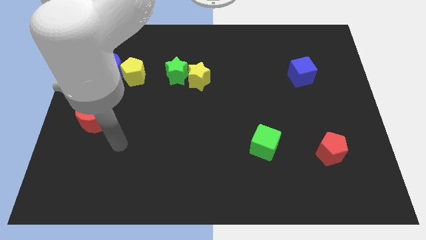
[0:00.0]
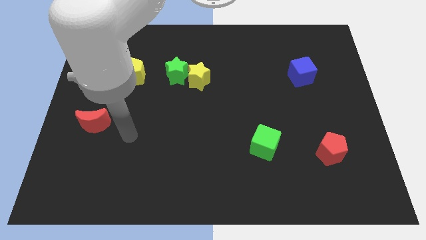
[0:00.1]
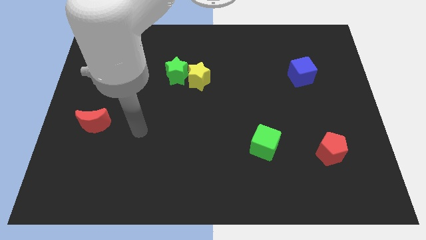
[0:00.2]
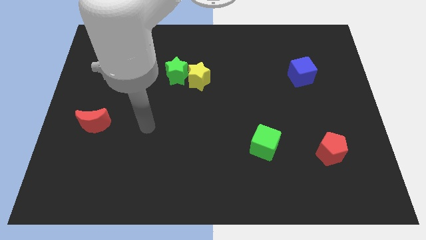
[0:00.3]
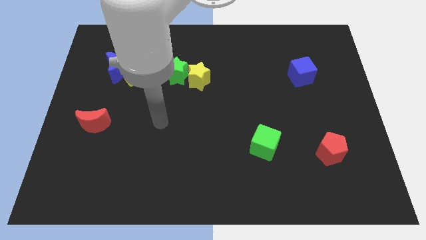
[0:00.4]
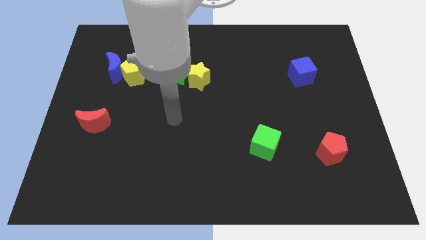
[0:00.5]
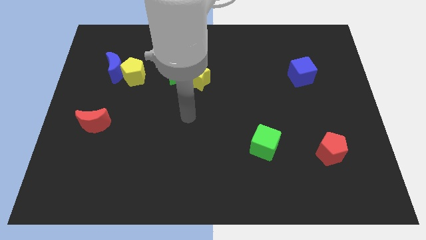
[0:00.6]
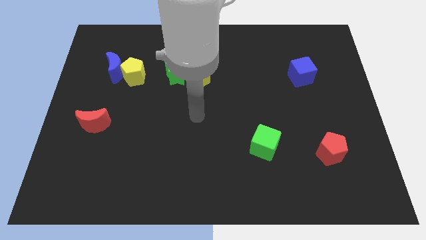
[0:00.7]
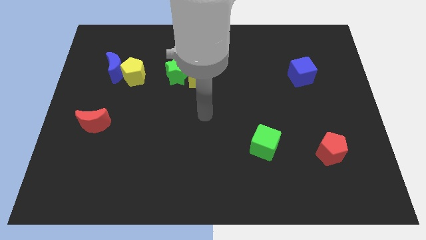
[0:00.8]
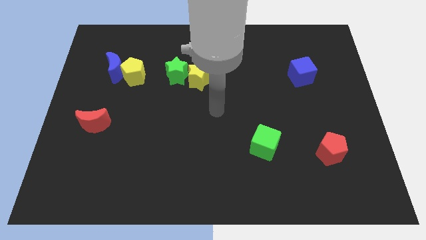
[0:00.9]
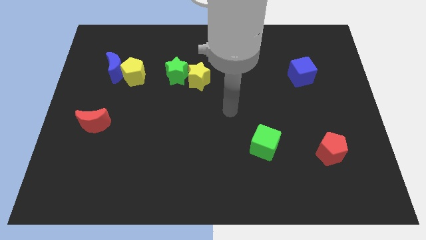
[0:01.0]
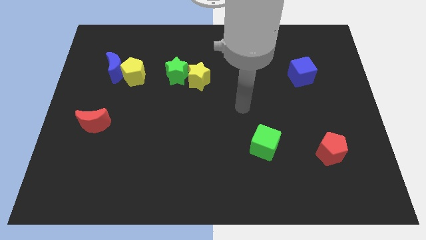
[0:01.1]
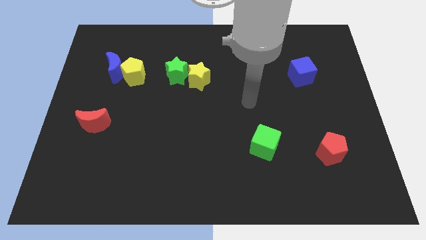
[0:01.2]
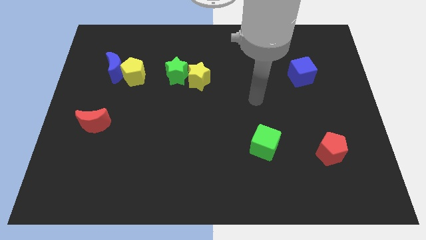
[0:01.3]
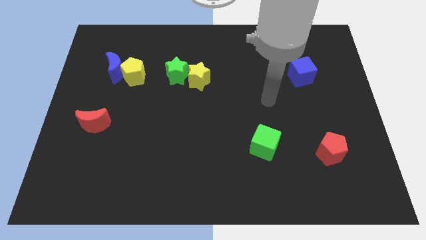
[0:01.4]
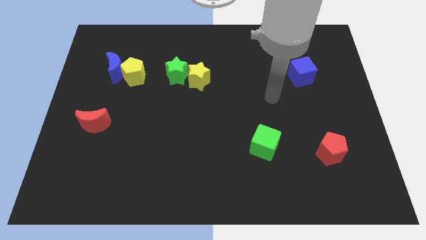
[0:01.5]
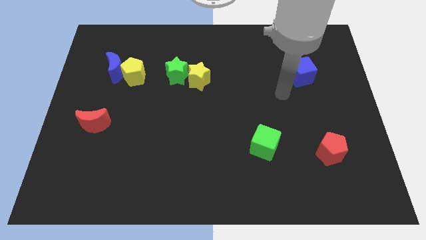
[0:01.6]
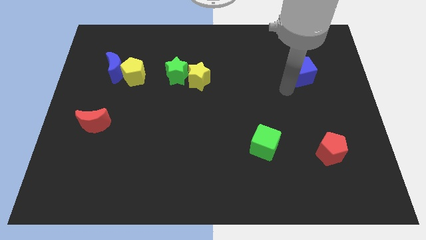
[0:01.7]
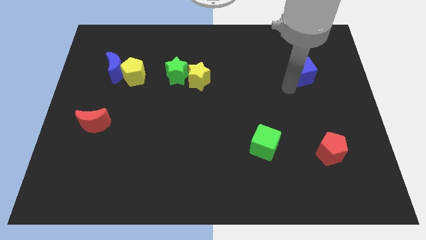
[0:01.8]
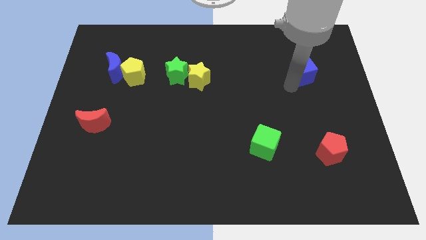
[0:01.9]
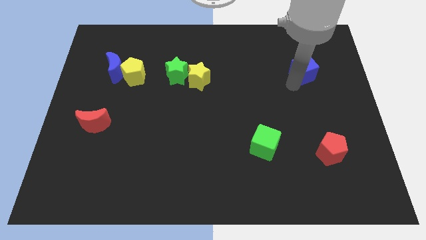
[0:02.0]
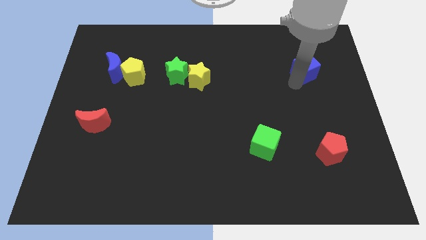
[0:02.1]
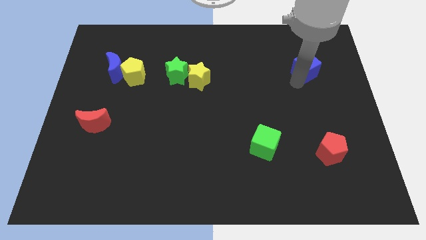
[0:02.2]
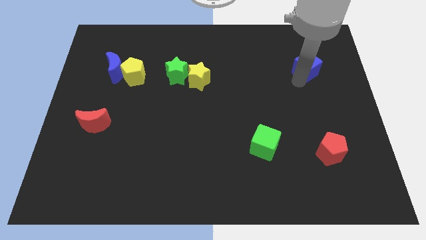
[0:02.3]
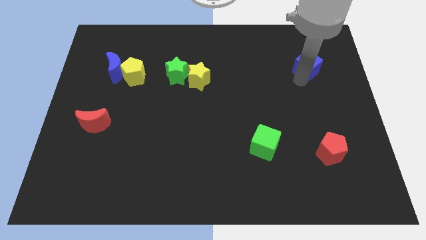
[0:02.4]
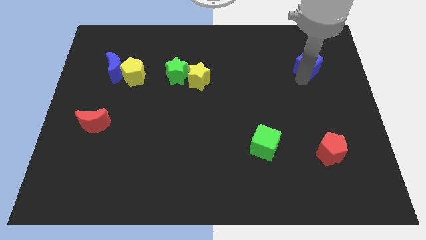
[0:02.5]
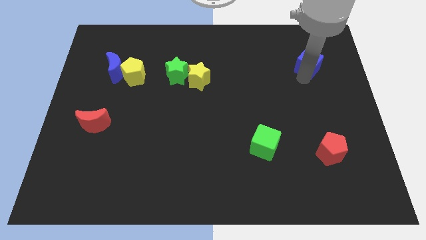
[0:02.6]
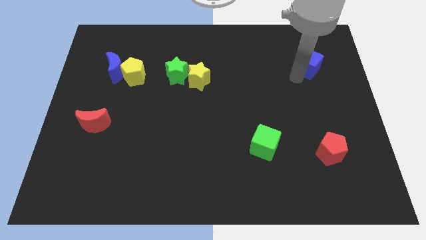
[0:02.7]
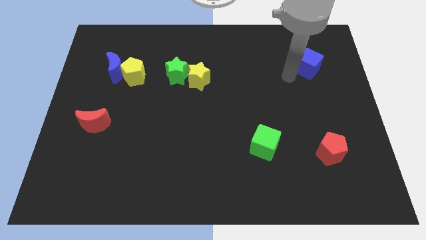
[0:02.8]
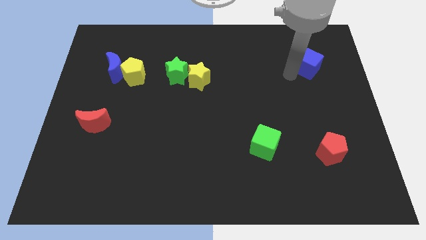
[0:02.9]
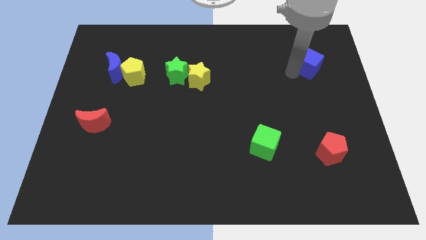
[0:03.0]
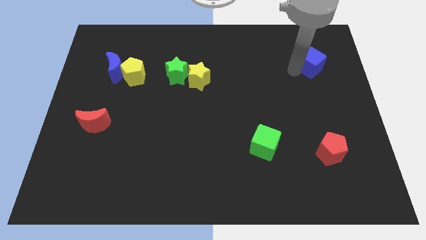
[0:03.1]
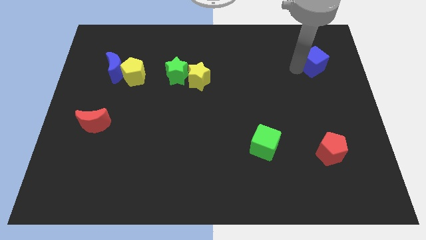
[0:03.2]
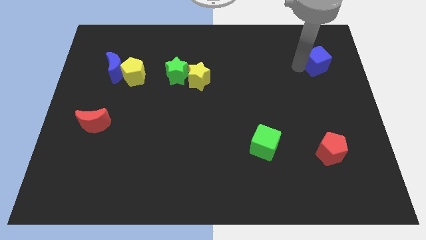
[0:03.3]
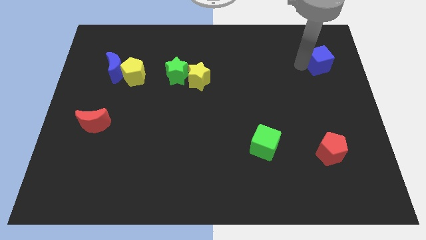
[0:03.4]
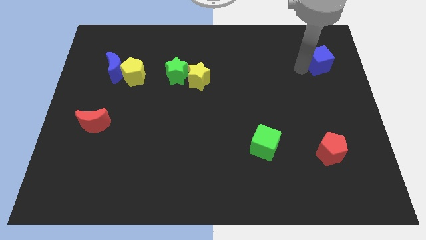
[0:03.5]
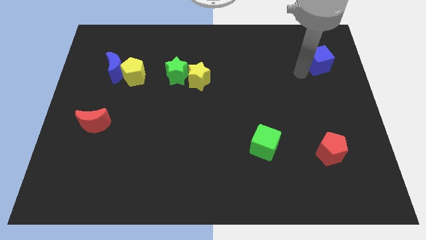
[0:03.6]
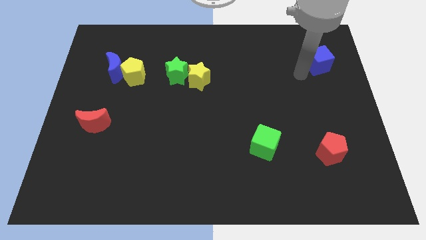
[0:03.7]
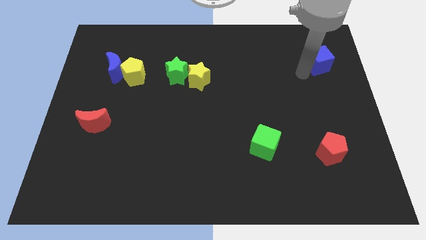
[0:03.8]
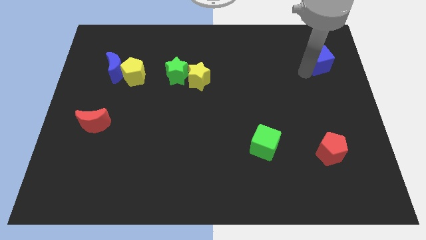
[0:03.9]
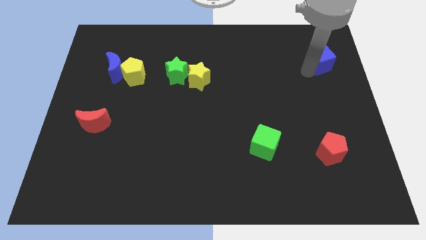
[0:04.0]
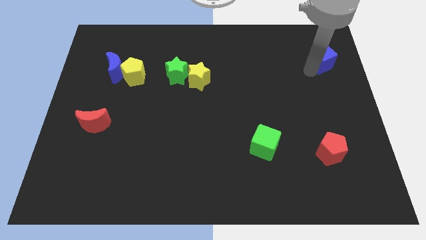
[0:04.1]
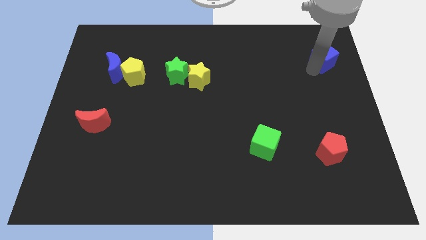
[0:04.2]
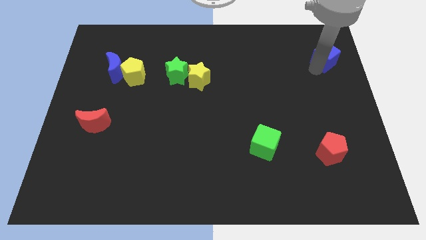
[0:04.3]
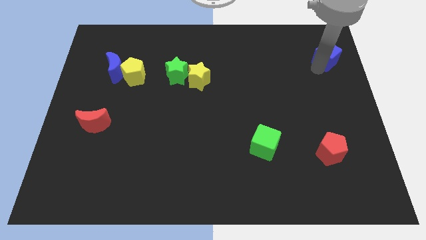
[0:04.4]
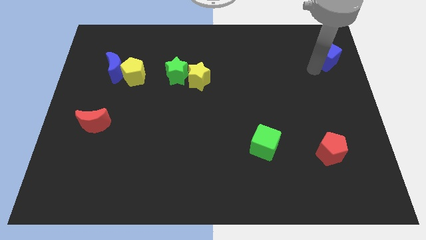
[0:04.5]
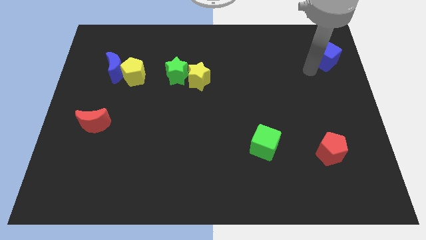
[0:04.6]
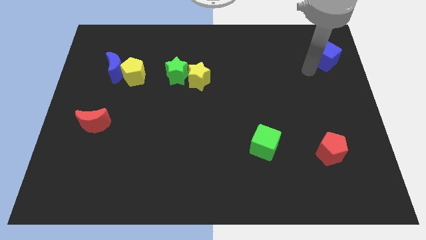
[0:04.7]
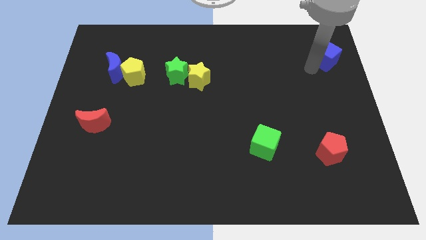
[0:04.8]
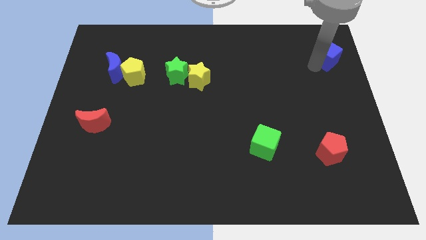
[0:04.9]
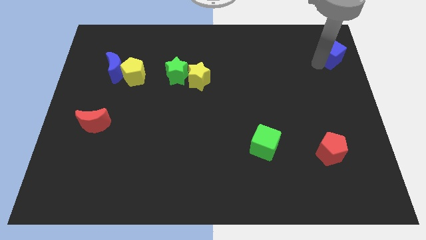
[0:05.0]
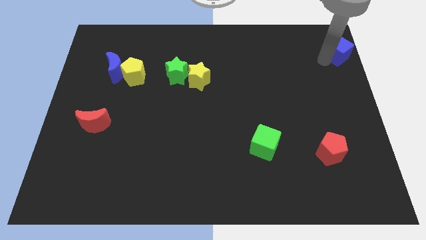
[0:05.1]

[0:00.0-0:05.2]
push the blue cube to the upper right corner

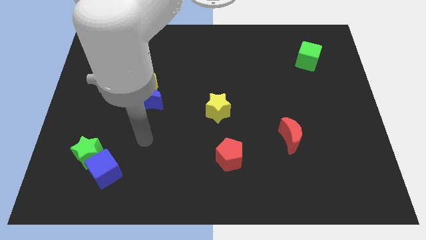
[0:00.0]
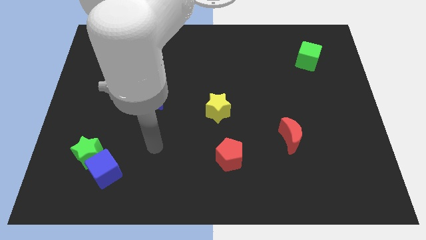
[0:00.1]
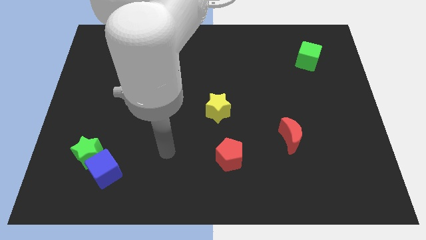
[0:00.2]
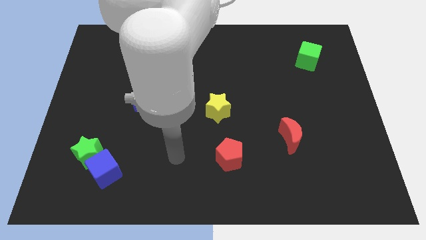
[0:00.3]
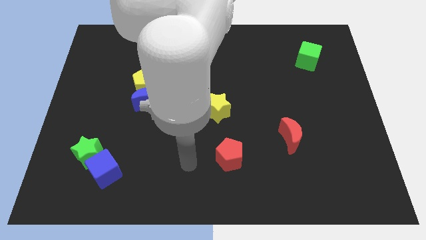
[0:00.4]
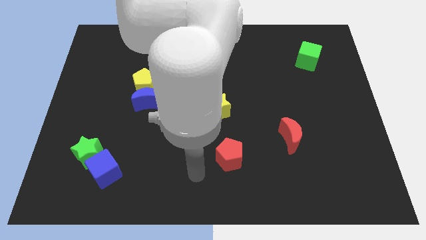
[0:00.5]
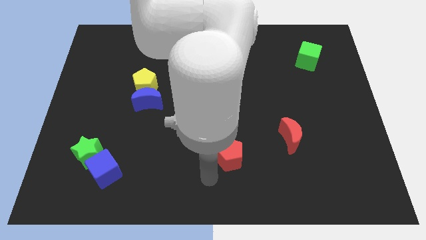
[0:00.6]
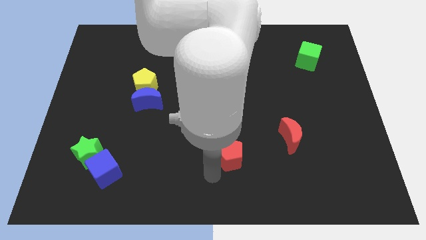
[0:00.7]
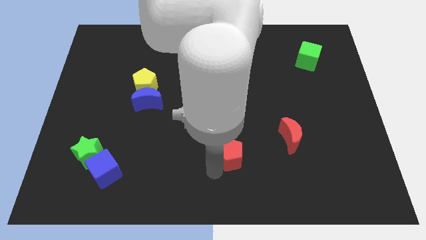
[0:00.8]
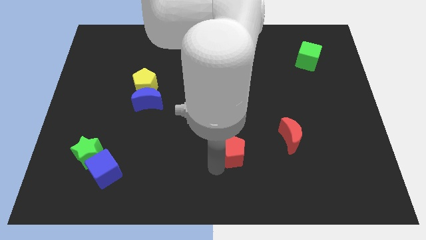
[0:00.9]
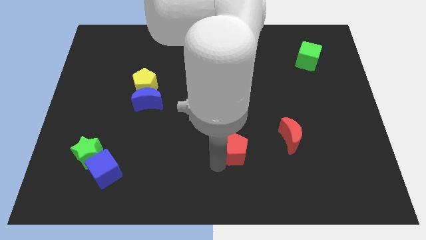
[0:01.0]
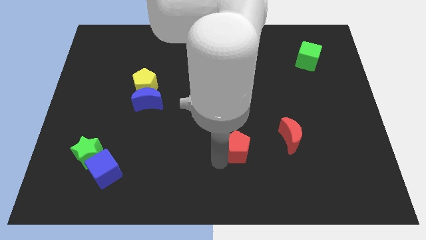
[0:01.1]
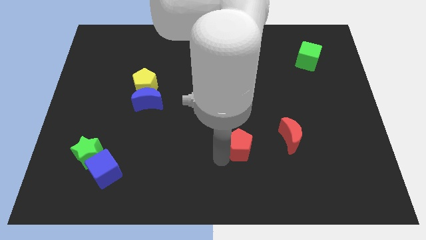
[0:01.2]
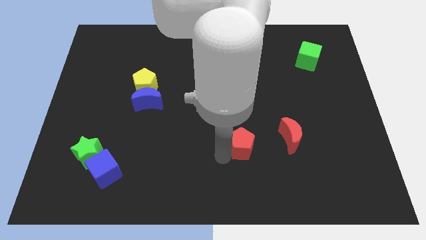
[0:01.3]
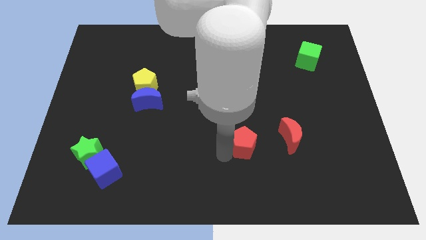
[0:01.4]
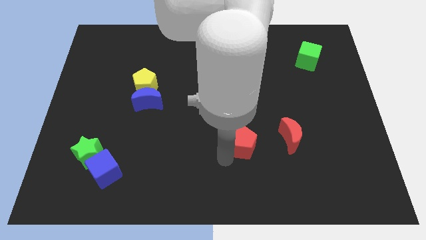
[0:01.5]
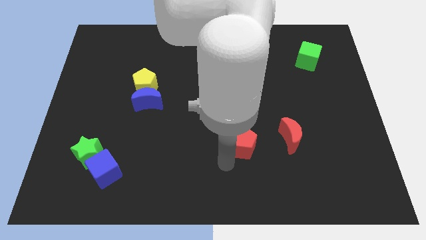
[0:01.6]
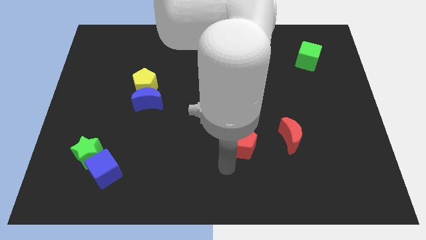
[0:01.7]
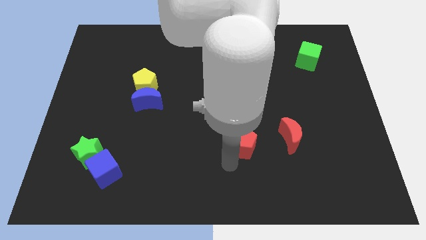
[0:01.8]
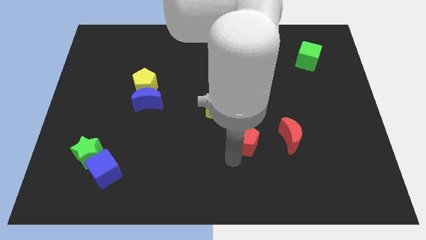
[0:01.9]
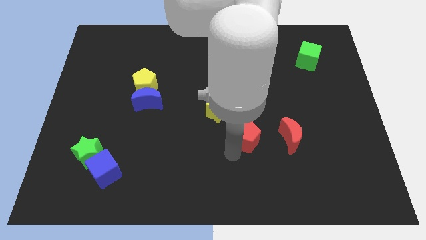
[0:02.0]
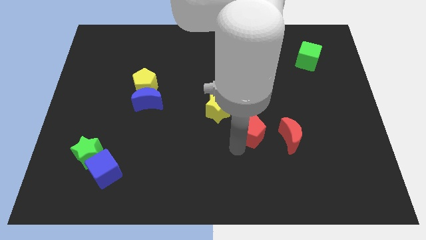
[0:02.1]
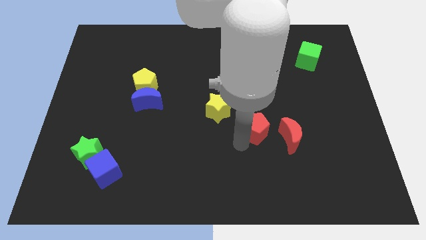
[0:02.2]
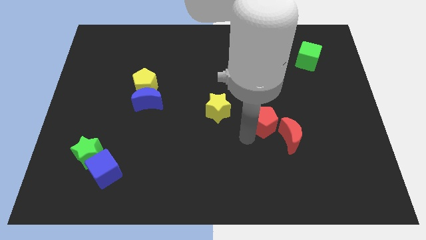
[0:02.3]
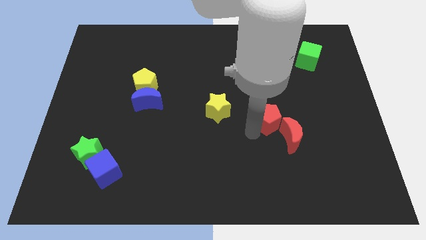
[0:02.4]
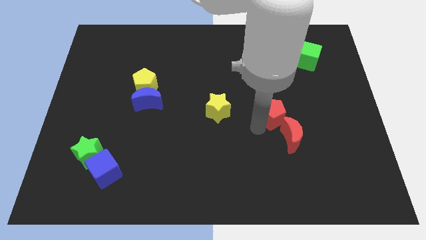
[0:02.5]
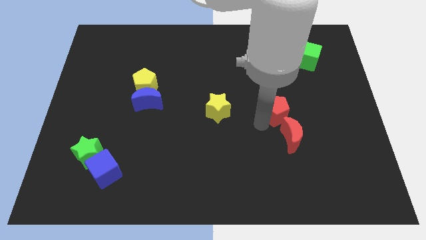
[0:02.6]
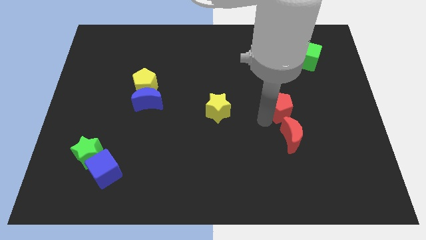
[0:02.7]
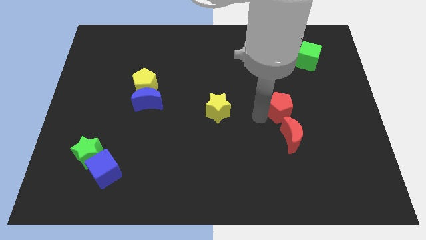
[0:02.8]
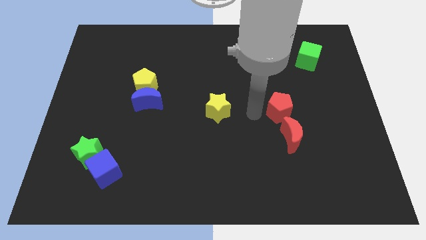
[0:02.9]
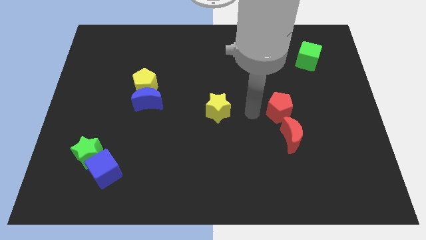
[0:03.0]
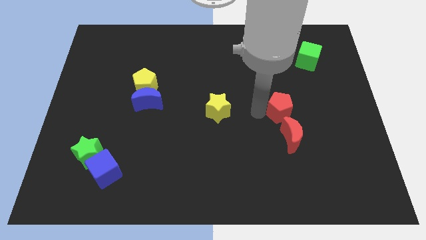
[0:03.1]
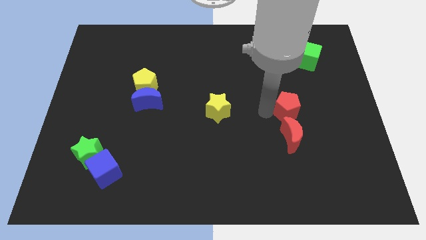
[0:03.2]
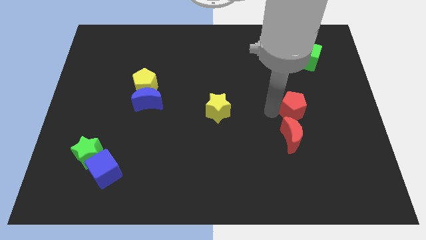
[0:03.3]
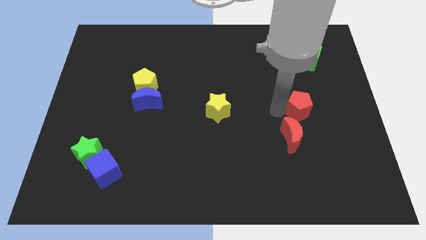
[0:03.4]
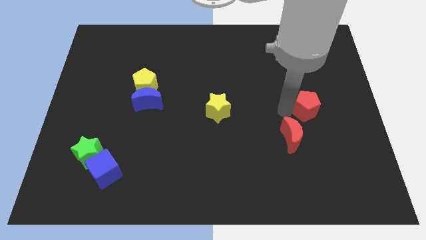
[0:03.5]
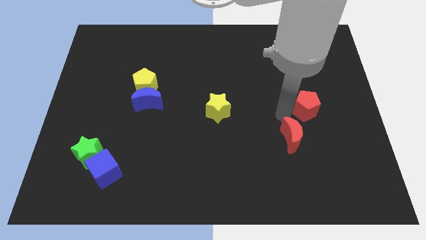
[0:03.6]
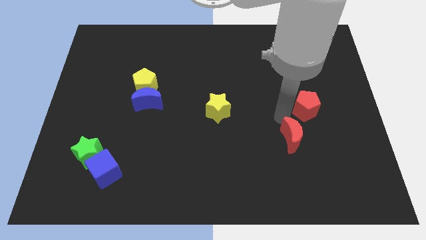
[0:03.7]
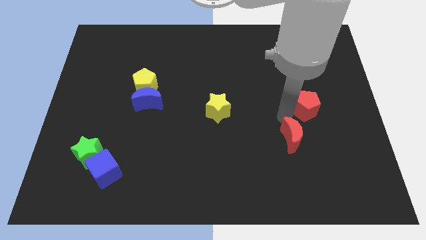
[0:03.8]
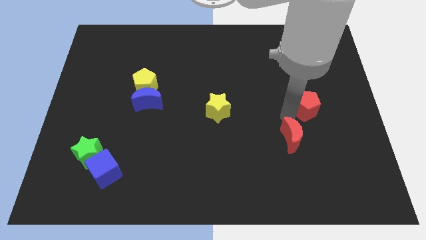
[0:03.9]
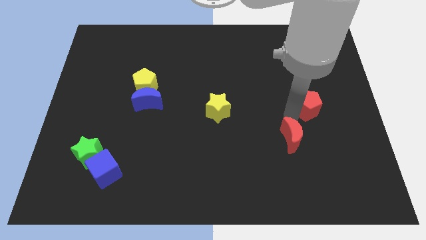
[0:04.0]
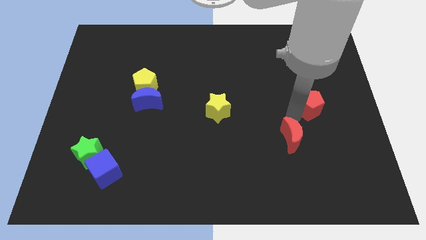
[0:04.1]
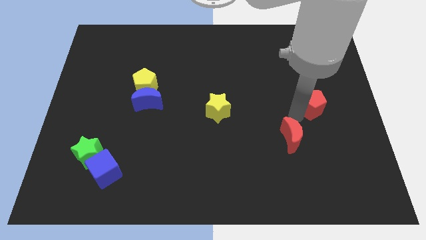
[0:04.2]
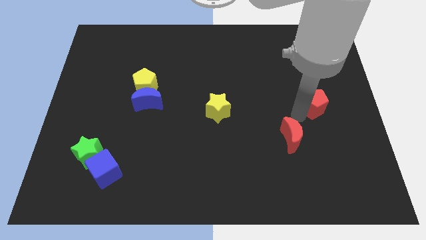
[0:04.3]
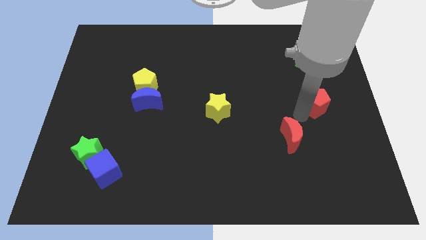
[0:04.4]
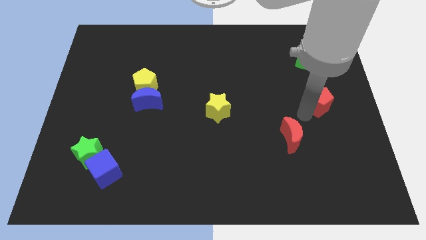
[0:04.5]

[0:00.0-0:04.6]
push the red pentagon to the right side of the board
